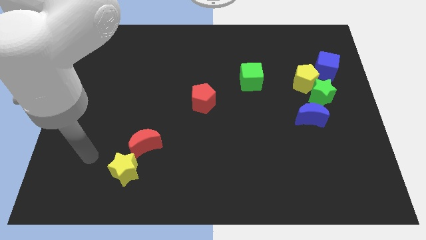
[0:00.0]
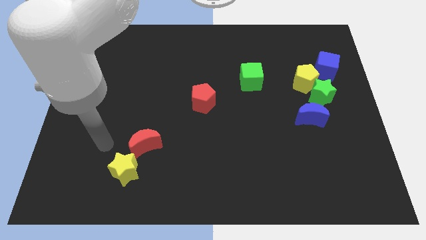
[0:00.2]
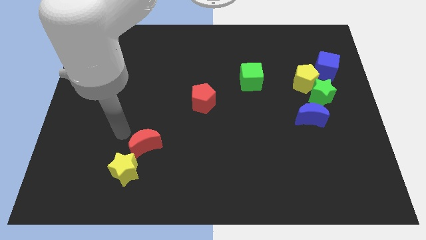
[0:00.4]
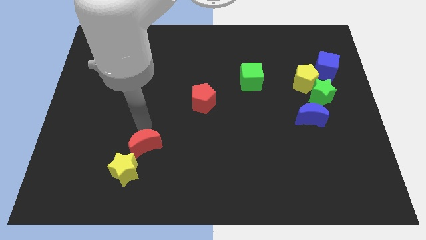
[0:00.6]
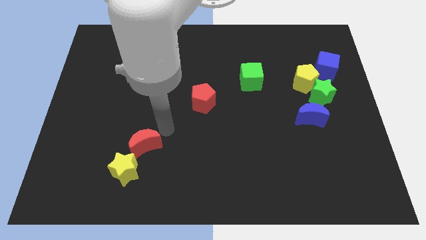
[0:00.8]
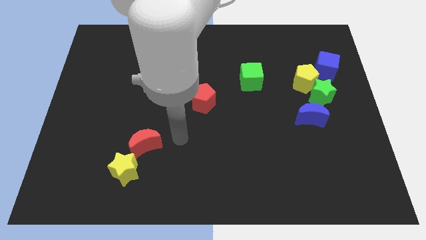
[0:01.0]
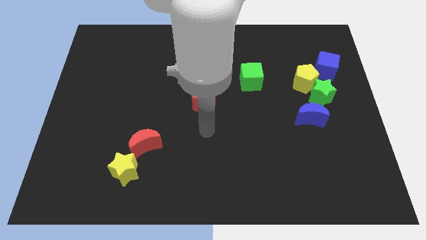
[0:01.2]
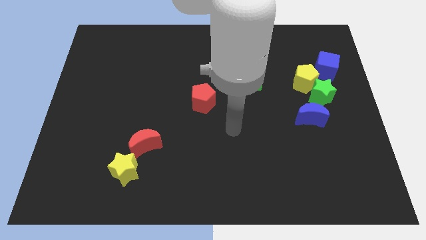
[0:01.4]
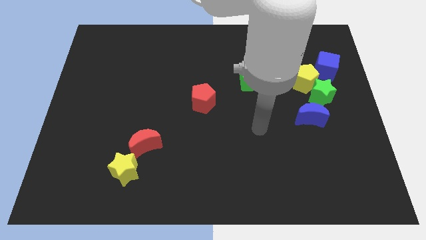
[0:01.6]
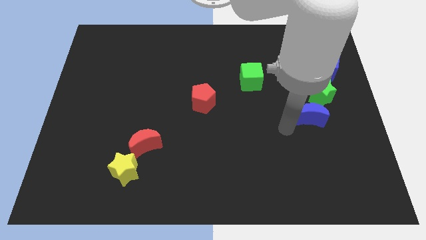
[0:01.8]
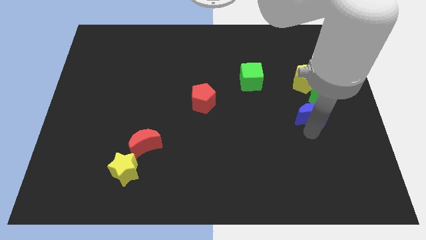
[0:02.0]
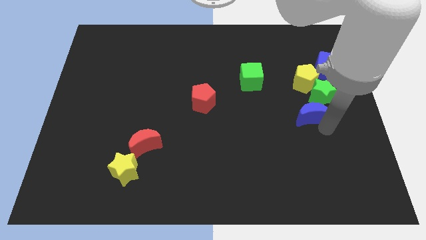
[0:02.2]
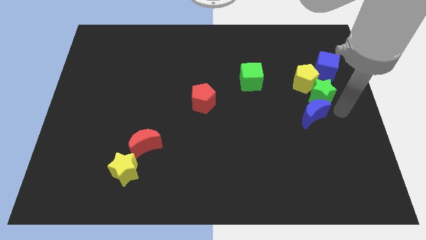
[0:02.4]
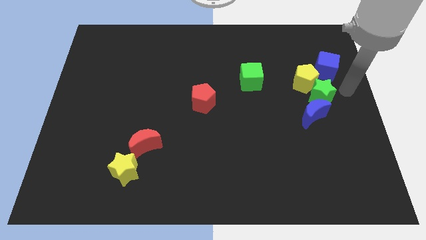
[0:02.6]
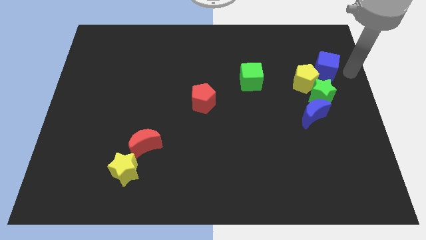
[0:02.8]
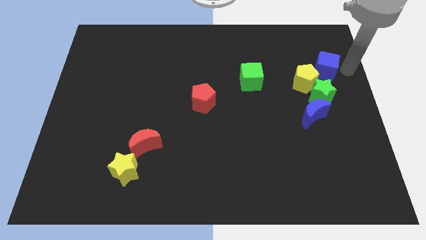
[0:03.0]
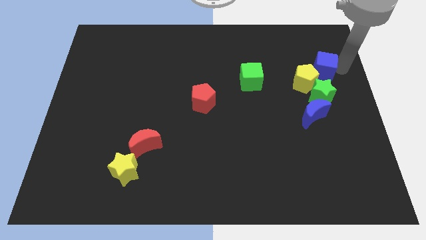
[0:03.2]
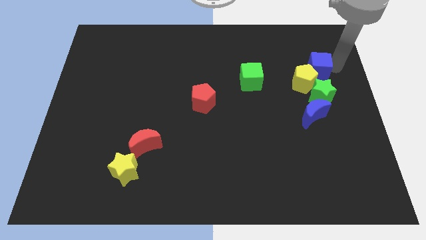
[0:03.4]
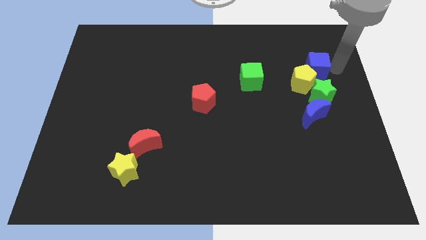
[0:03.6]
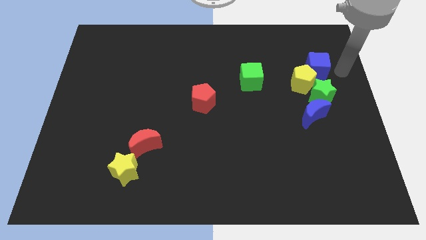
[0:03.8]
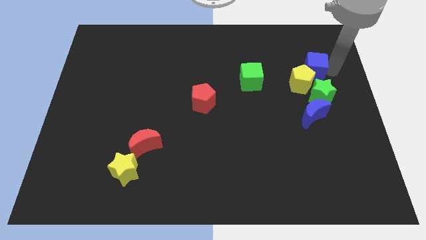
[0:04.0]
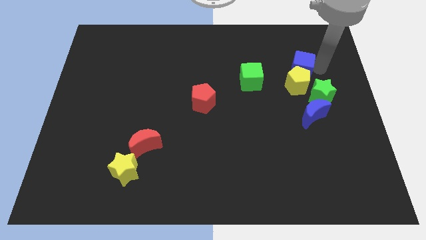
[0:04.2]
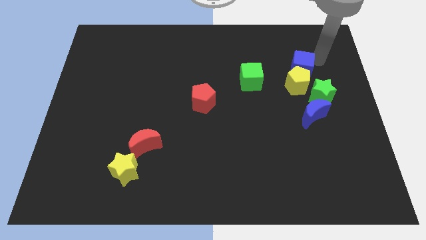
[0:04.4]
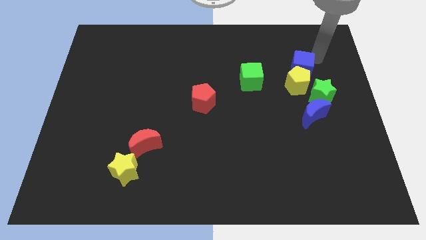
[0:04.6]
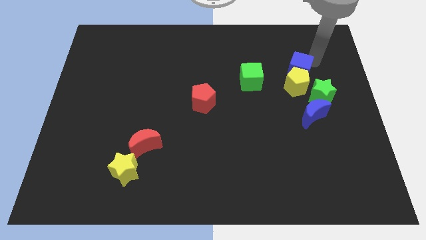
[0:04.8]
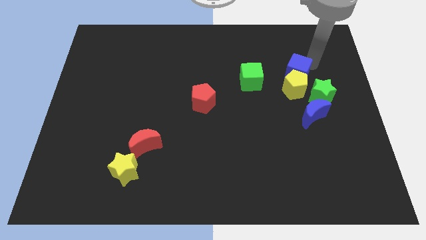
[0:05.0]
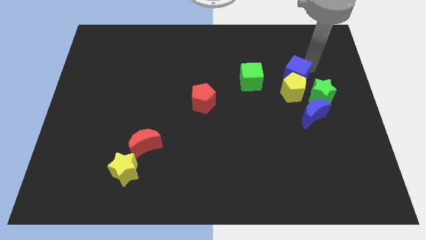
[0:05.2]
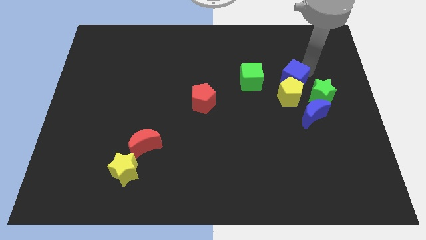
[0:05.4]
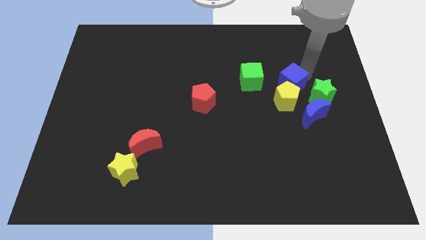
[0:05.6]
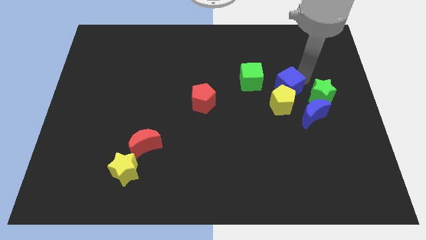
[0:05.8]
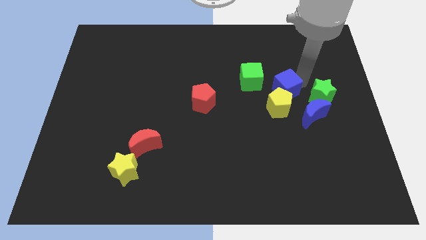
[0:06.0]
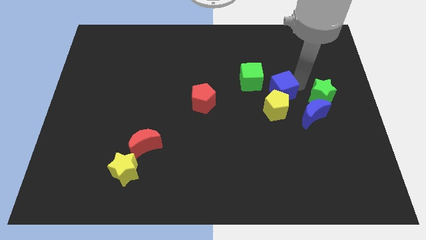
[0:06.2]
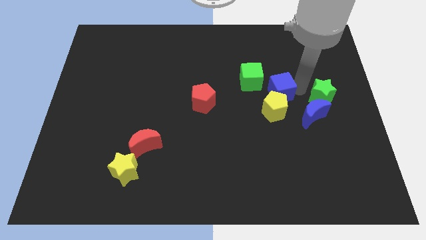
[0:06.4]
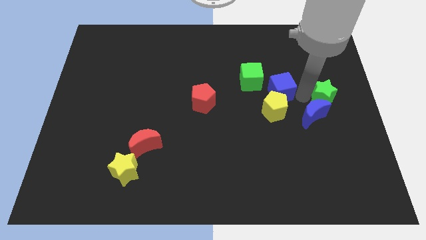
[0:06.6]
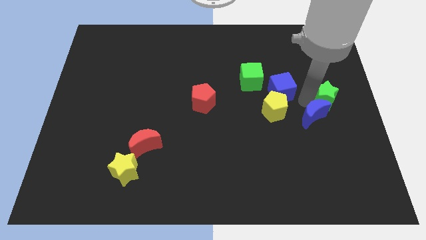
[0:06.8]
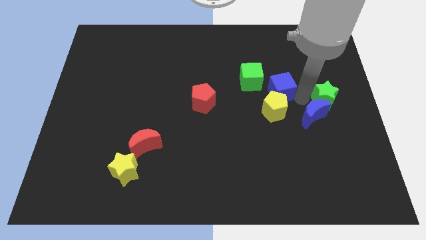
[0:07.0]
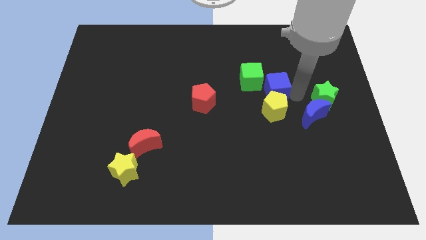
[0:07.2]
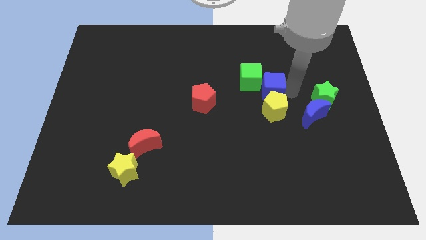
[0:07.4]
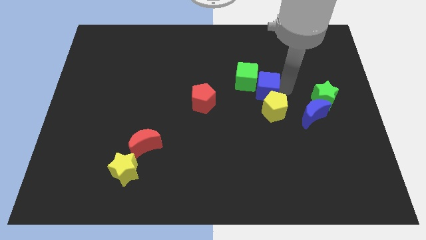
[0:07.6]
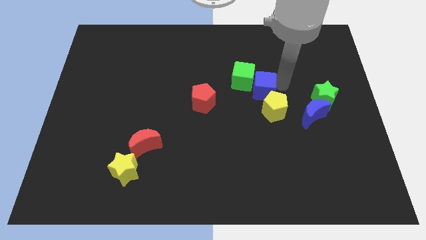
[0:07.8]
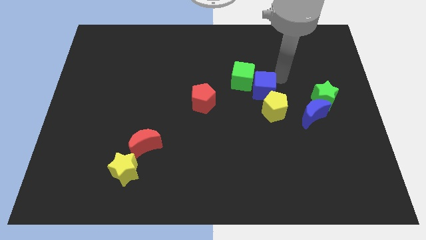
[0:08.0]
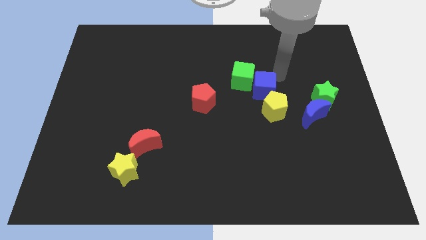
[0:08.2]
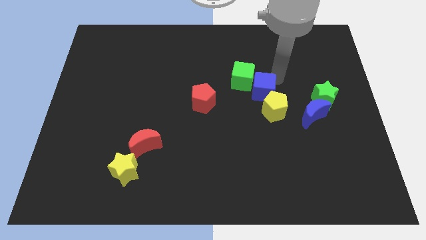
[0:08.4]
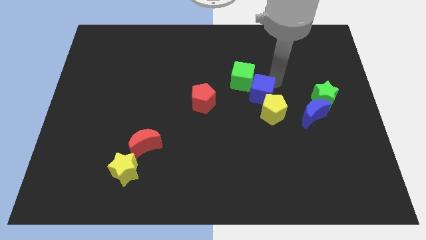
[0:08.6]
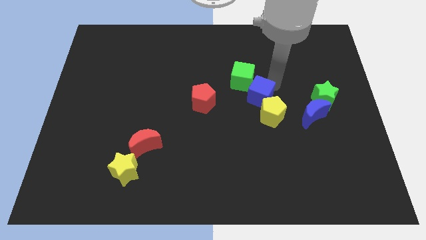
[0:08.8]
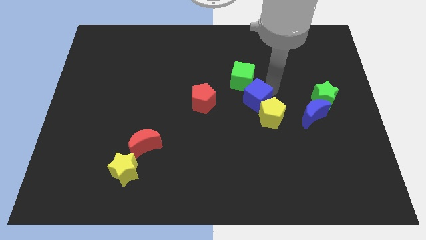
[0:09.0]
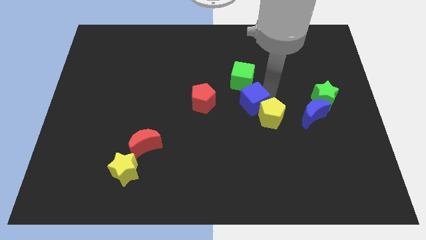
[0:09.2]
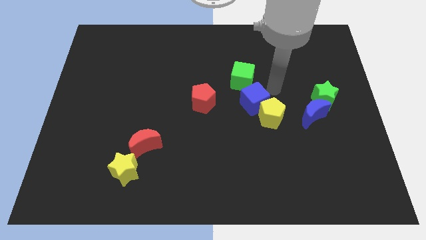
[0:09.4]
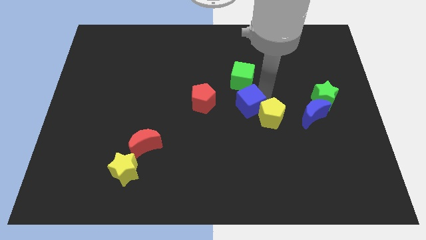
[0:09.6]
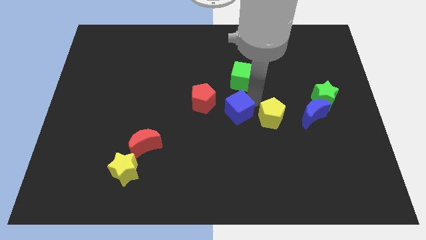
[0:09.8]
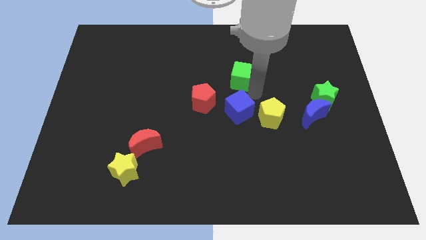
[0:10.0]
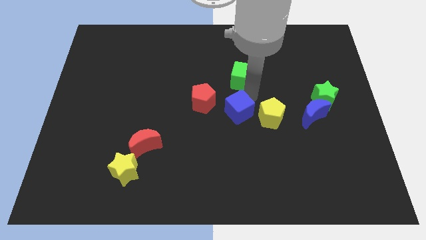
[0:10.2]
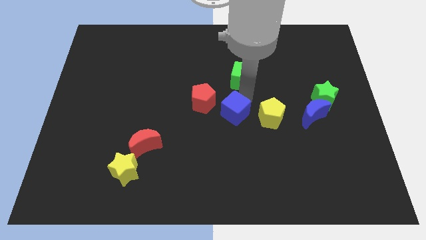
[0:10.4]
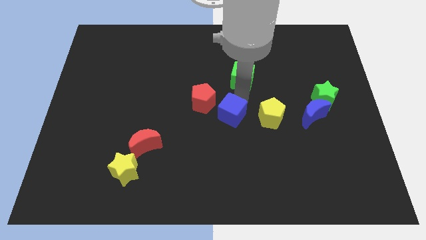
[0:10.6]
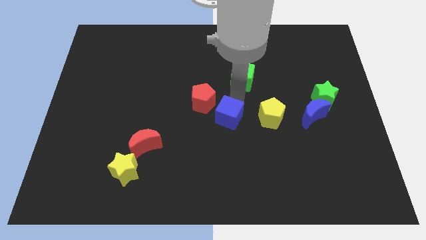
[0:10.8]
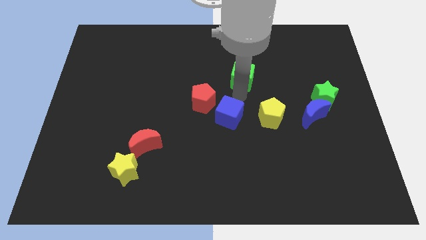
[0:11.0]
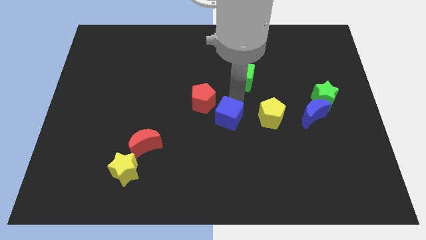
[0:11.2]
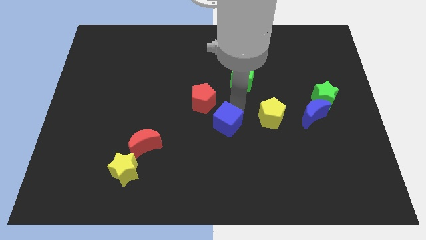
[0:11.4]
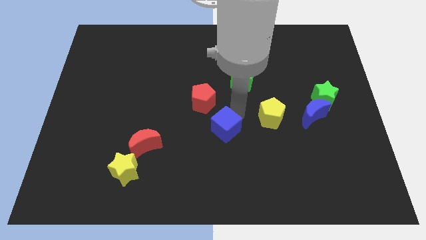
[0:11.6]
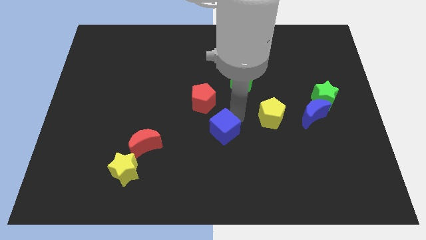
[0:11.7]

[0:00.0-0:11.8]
move the blue cube to the bottom side of the red pentagon
